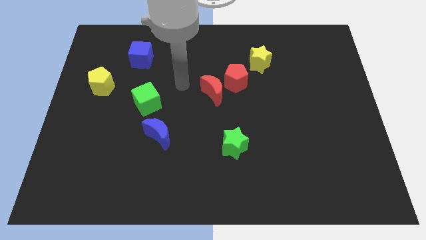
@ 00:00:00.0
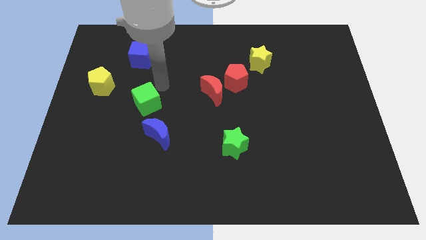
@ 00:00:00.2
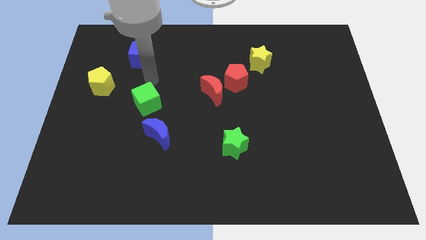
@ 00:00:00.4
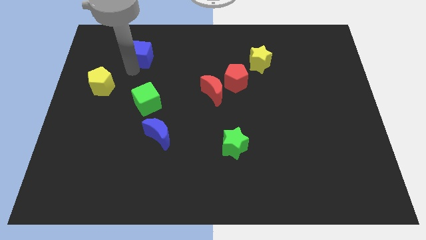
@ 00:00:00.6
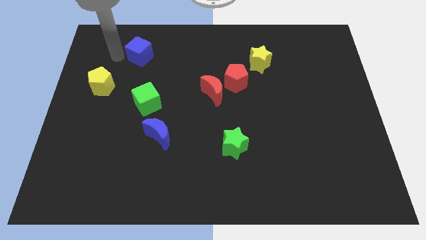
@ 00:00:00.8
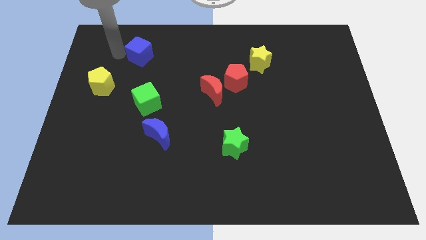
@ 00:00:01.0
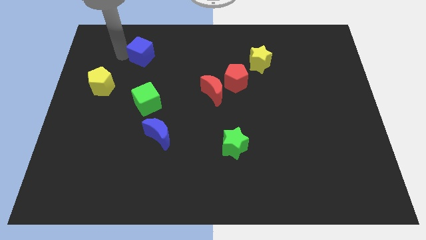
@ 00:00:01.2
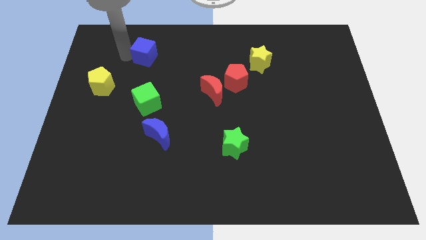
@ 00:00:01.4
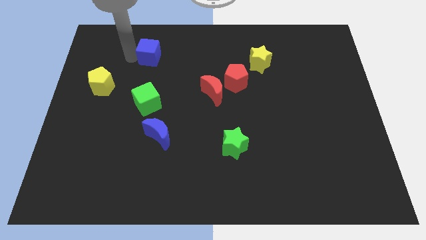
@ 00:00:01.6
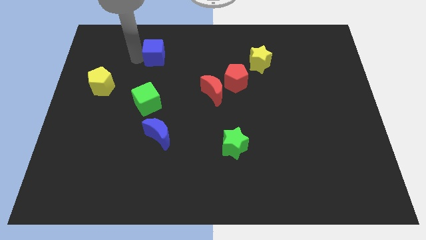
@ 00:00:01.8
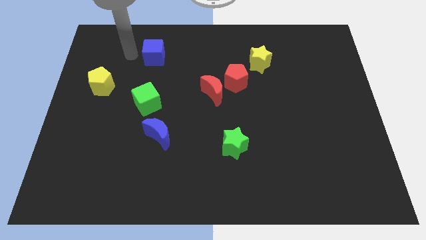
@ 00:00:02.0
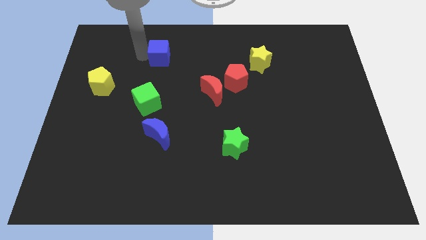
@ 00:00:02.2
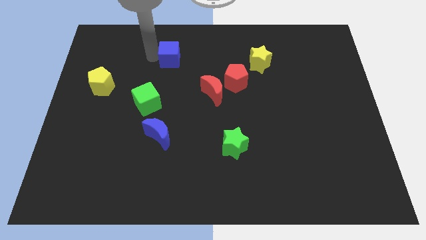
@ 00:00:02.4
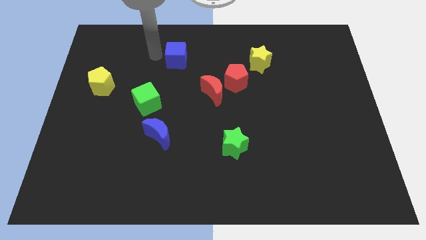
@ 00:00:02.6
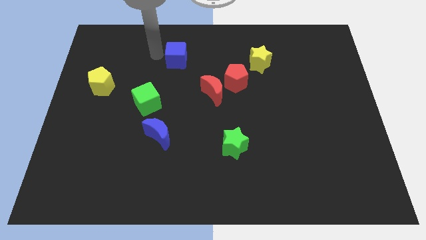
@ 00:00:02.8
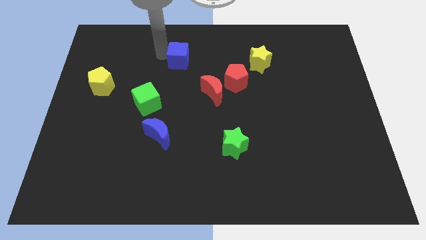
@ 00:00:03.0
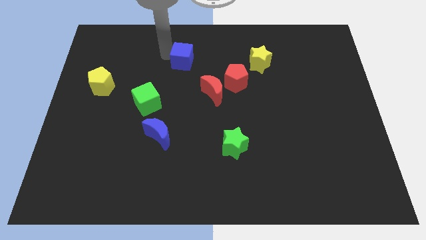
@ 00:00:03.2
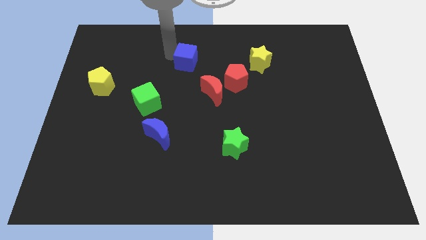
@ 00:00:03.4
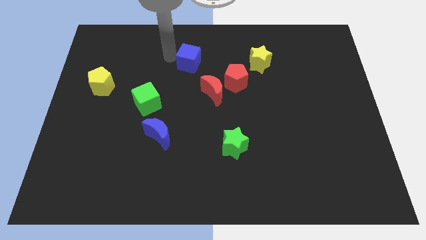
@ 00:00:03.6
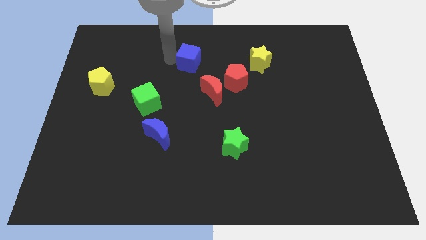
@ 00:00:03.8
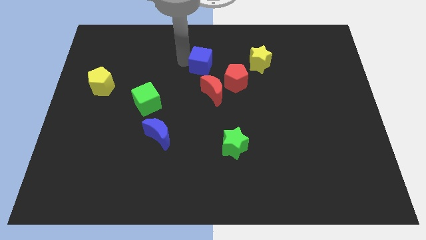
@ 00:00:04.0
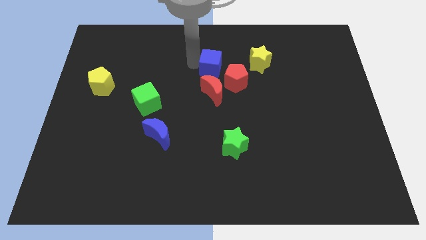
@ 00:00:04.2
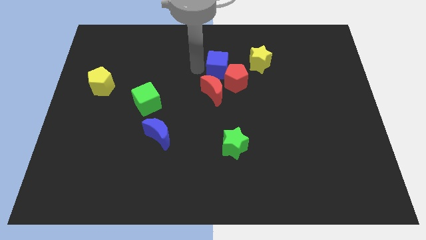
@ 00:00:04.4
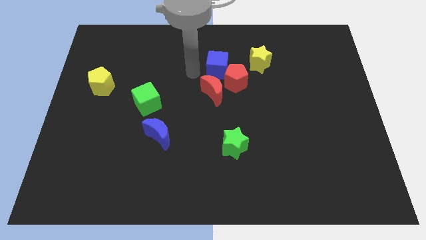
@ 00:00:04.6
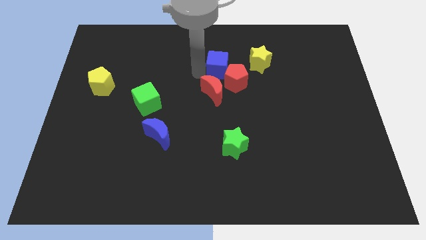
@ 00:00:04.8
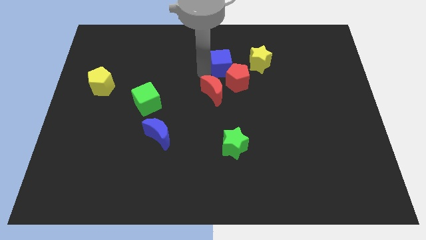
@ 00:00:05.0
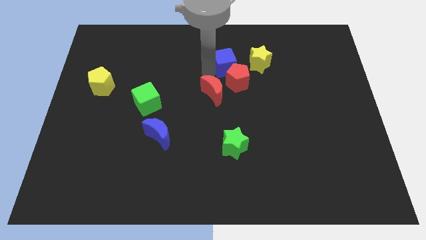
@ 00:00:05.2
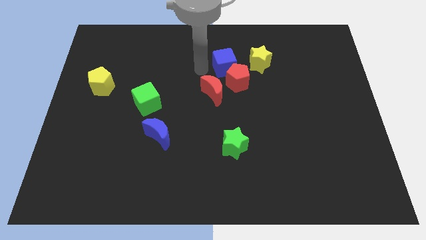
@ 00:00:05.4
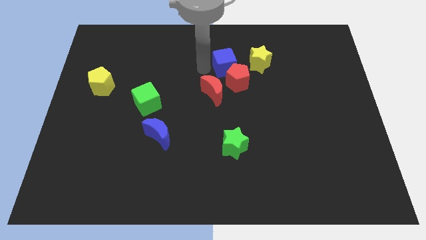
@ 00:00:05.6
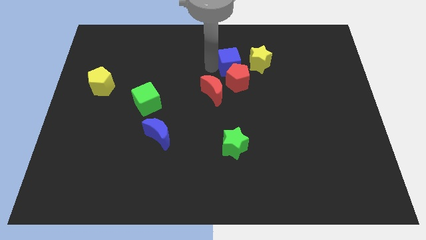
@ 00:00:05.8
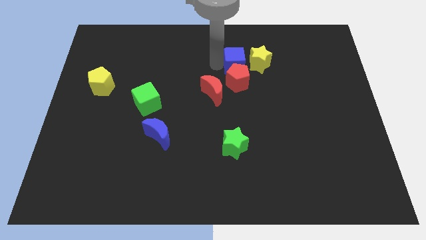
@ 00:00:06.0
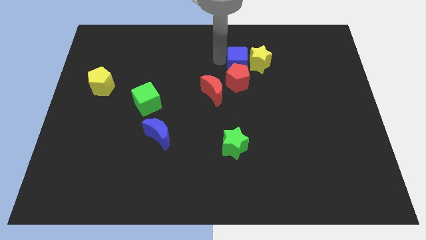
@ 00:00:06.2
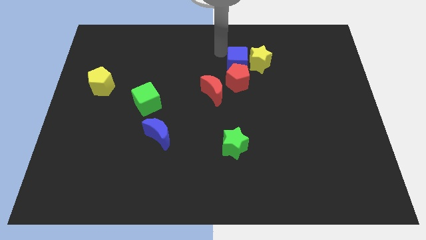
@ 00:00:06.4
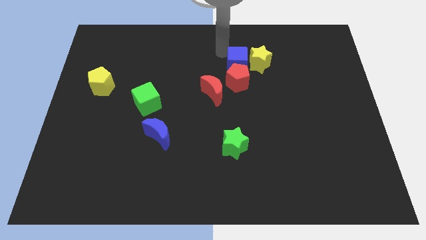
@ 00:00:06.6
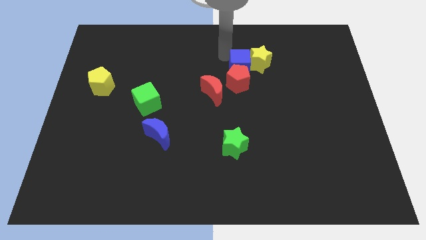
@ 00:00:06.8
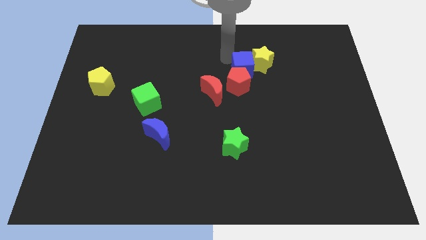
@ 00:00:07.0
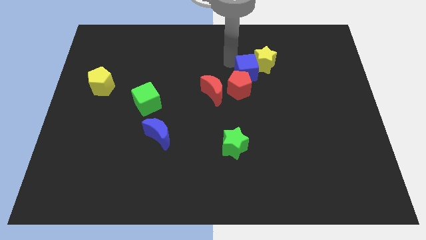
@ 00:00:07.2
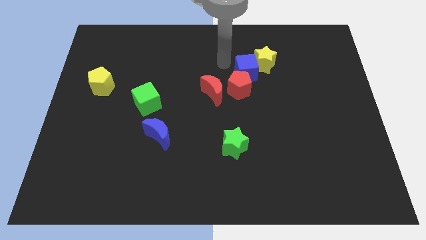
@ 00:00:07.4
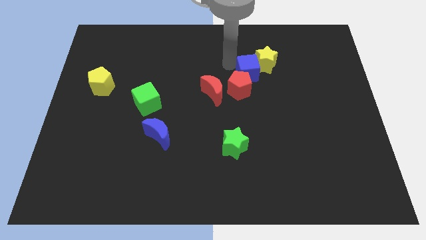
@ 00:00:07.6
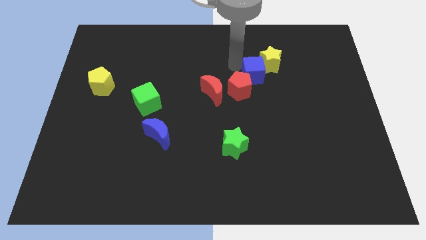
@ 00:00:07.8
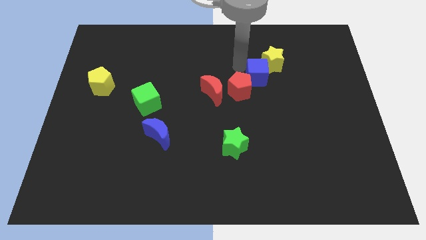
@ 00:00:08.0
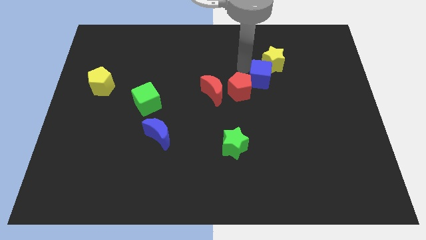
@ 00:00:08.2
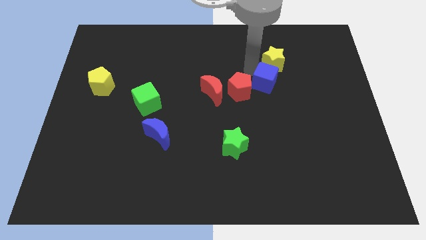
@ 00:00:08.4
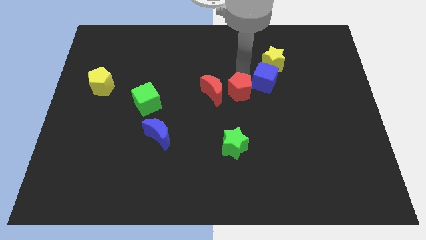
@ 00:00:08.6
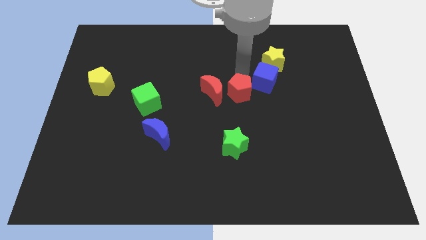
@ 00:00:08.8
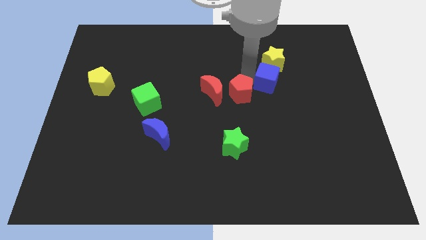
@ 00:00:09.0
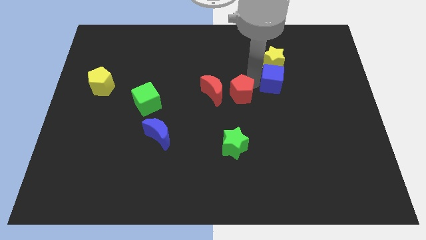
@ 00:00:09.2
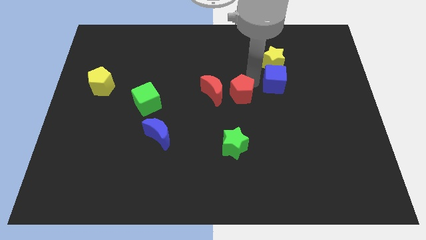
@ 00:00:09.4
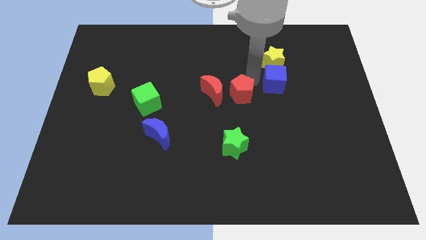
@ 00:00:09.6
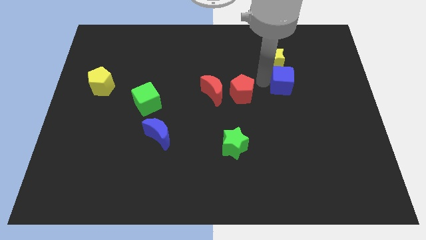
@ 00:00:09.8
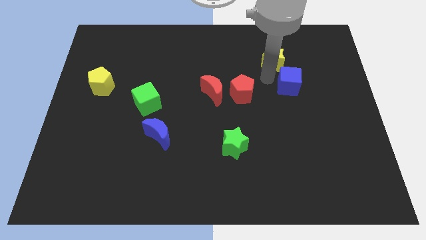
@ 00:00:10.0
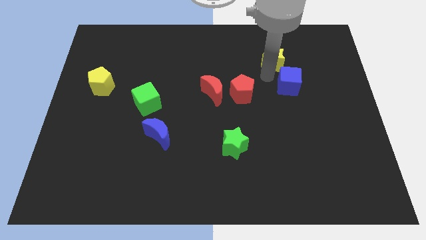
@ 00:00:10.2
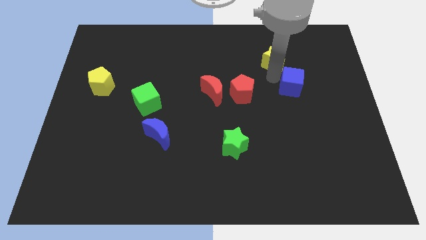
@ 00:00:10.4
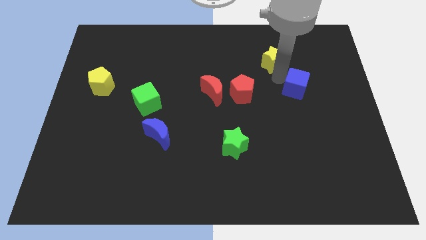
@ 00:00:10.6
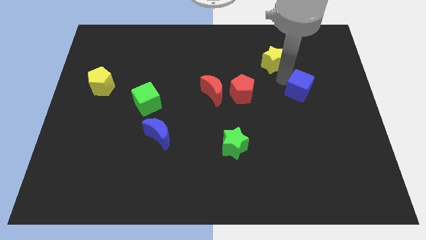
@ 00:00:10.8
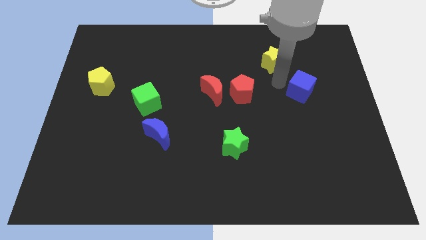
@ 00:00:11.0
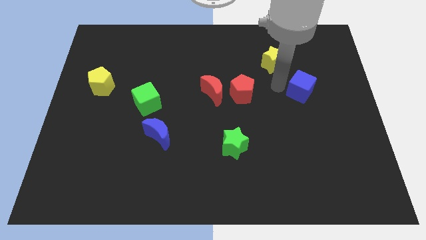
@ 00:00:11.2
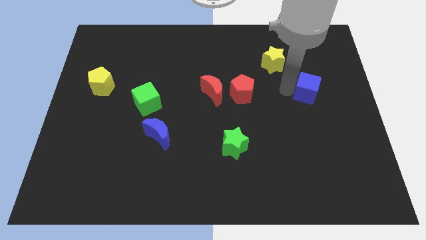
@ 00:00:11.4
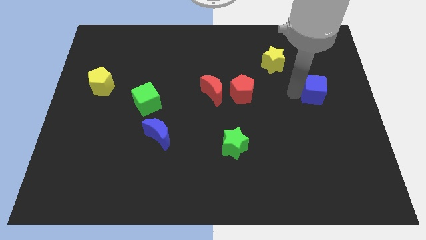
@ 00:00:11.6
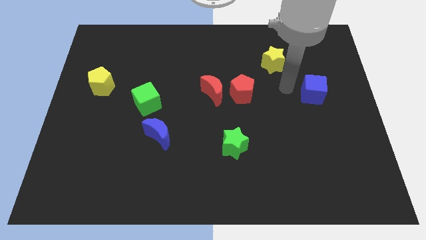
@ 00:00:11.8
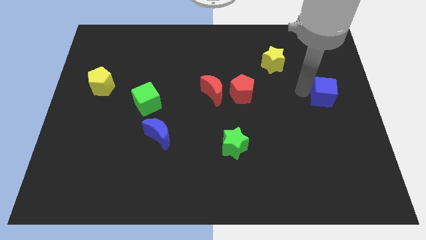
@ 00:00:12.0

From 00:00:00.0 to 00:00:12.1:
push the blue cube to the right side

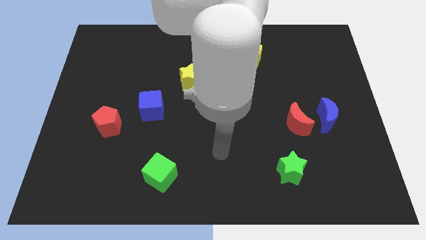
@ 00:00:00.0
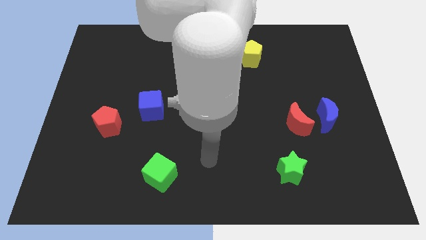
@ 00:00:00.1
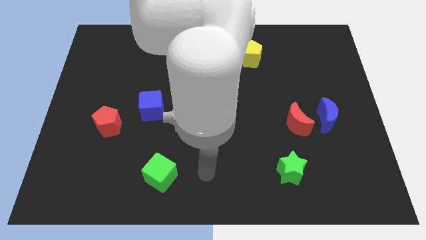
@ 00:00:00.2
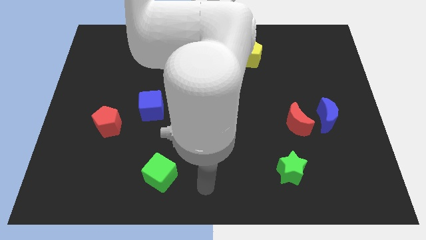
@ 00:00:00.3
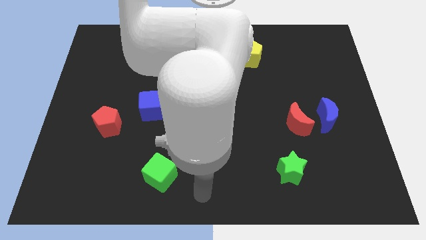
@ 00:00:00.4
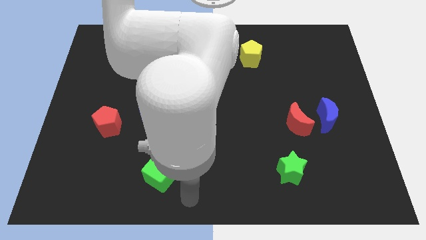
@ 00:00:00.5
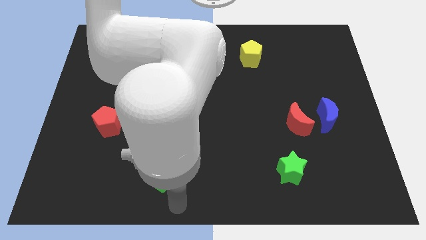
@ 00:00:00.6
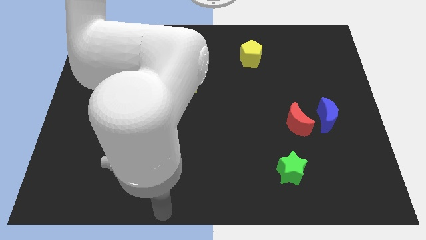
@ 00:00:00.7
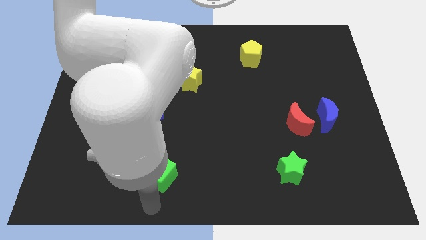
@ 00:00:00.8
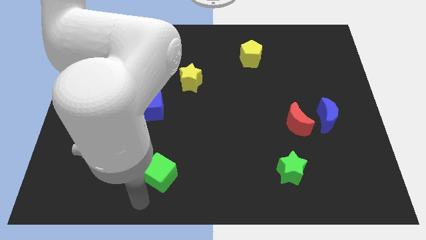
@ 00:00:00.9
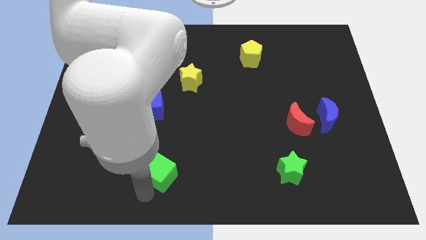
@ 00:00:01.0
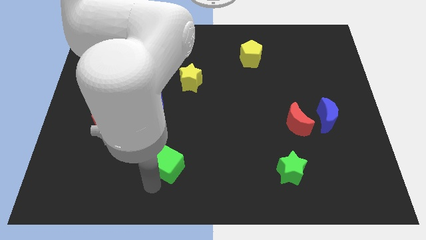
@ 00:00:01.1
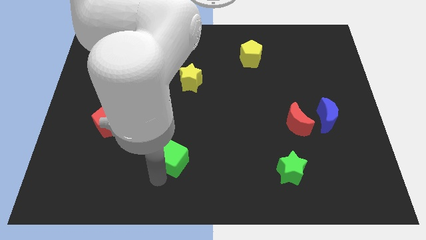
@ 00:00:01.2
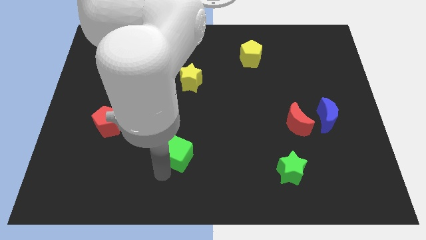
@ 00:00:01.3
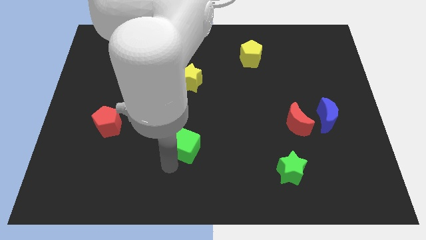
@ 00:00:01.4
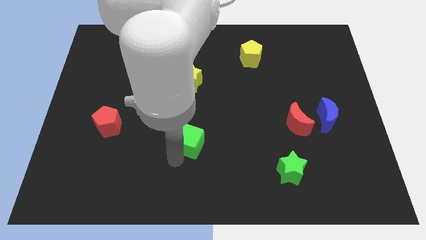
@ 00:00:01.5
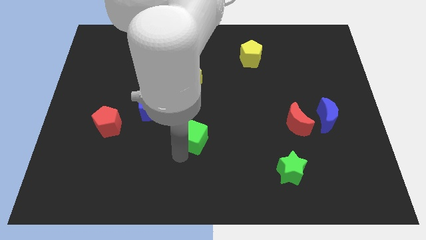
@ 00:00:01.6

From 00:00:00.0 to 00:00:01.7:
move the green cube to the center of the board
